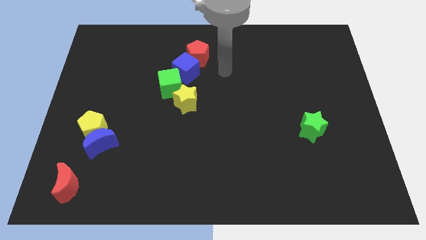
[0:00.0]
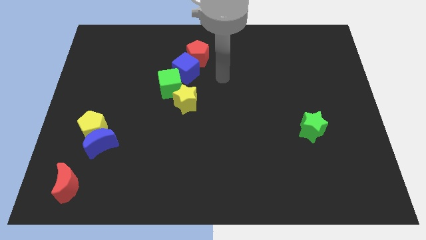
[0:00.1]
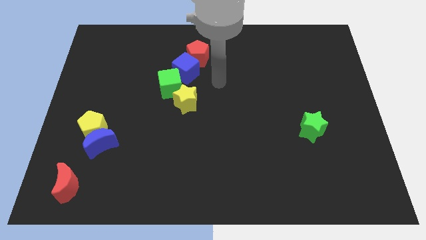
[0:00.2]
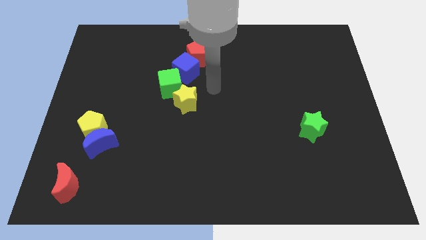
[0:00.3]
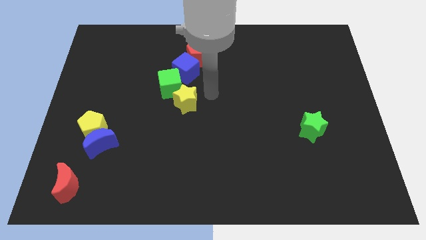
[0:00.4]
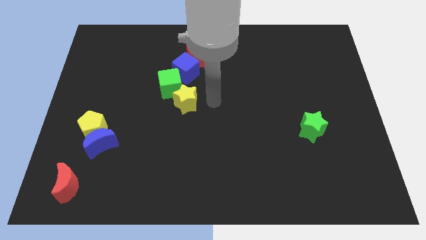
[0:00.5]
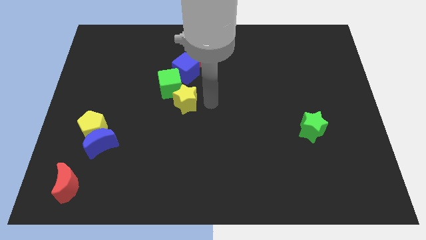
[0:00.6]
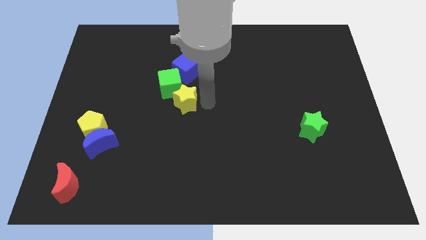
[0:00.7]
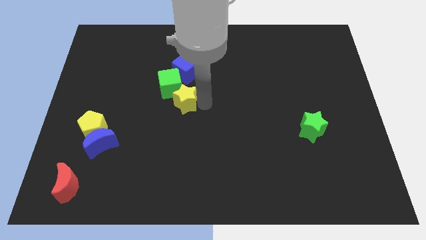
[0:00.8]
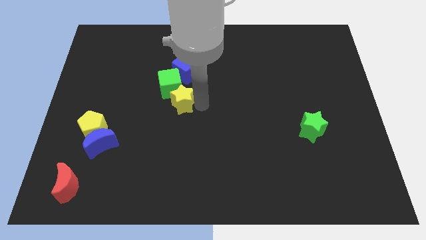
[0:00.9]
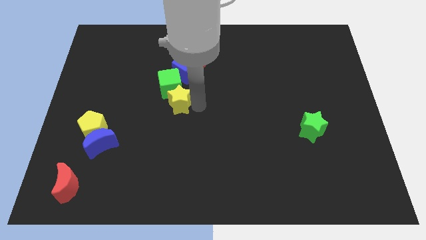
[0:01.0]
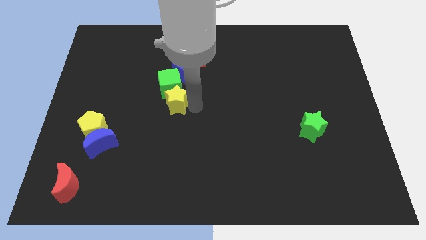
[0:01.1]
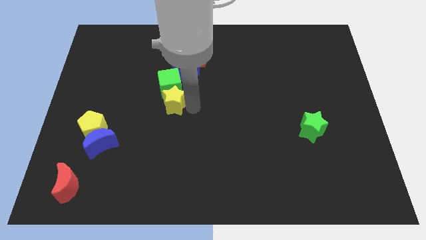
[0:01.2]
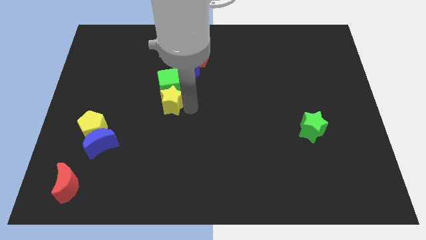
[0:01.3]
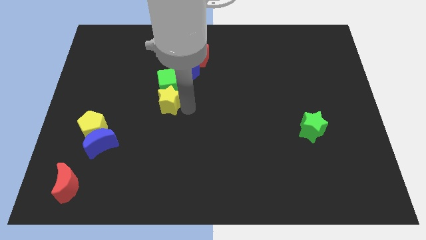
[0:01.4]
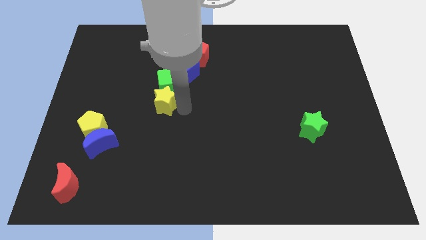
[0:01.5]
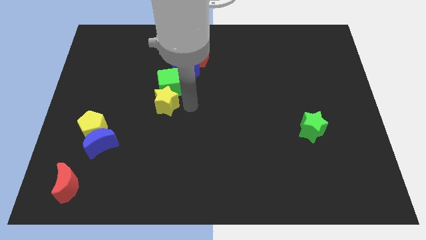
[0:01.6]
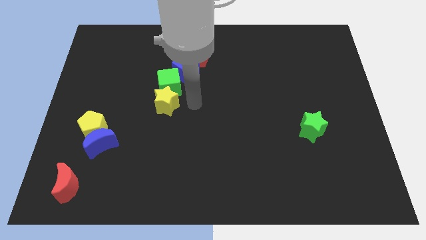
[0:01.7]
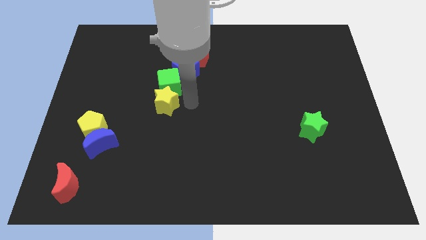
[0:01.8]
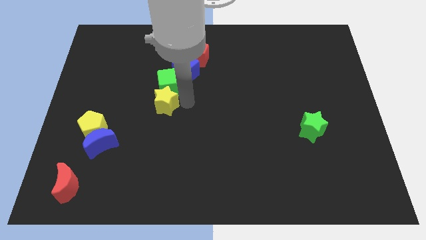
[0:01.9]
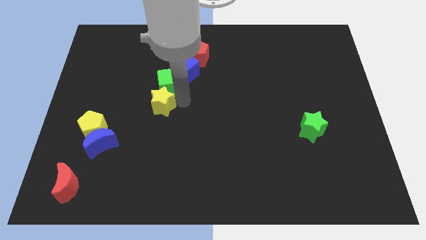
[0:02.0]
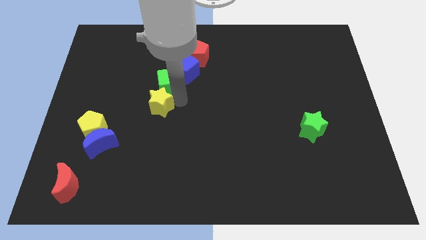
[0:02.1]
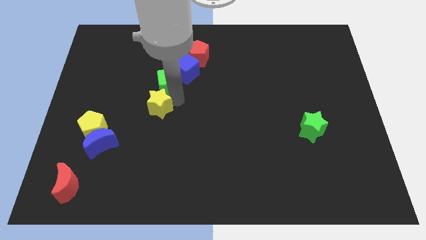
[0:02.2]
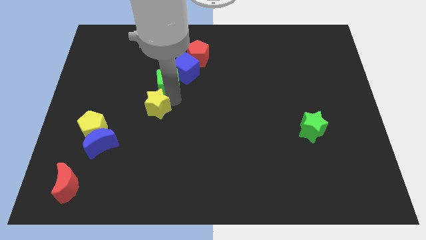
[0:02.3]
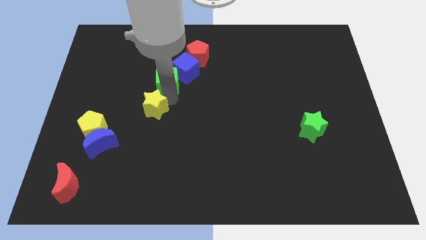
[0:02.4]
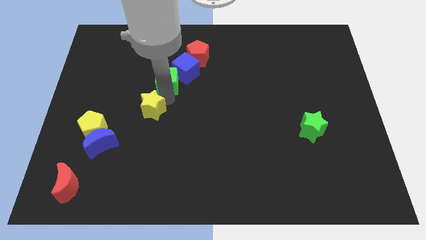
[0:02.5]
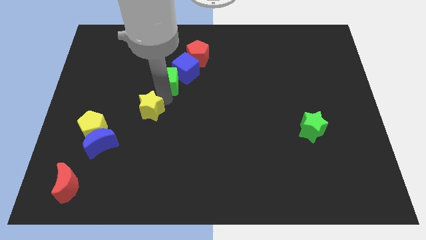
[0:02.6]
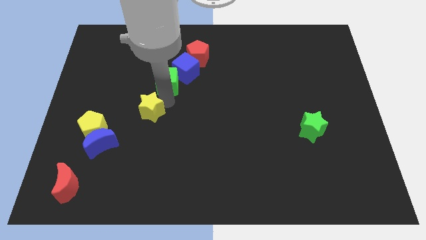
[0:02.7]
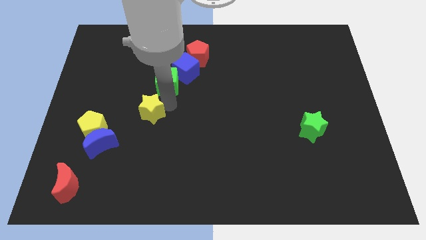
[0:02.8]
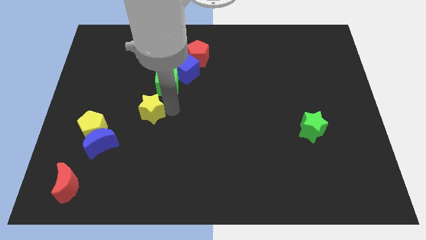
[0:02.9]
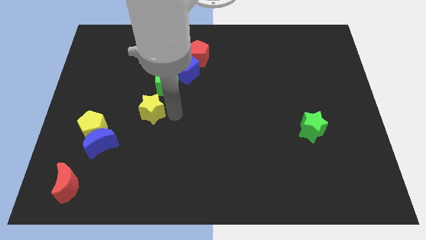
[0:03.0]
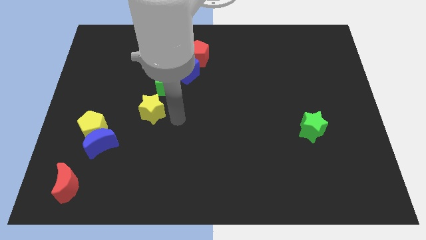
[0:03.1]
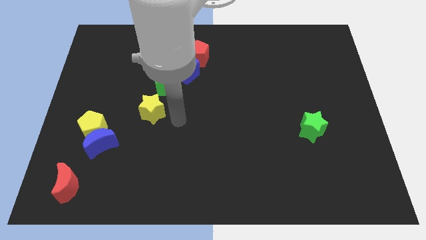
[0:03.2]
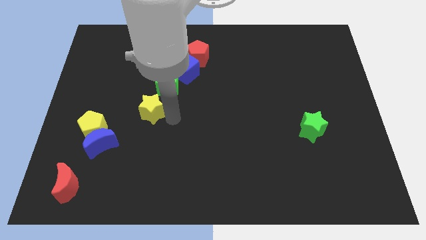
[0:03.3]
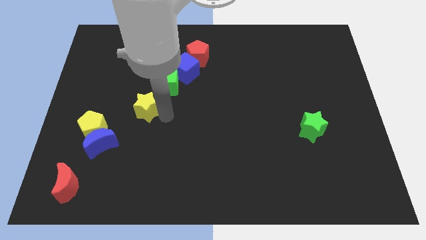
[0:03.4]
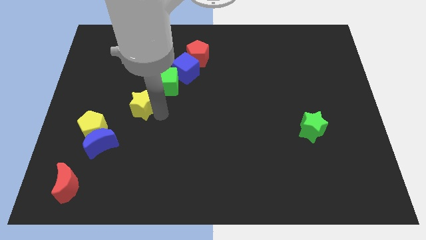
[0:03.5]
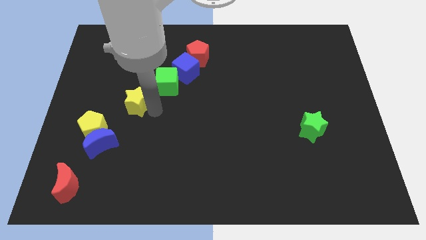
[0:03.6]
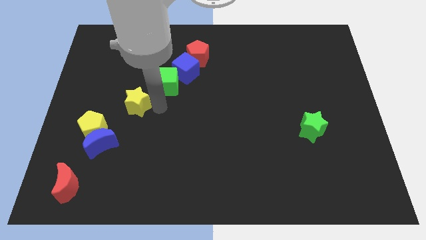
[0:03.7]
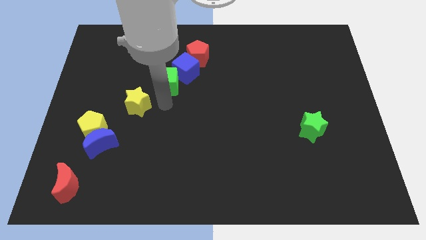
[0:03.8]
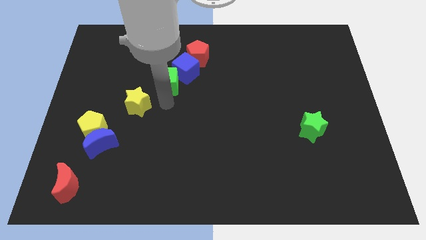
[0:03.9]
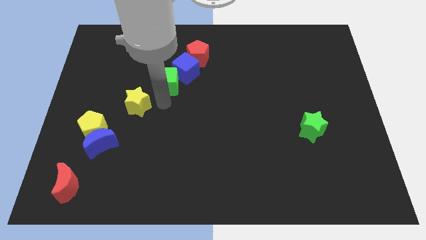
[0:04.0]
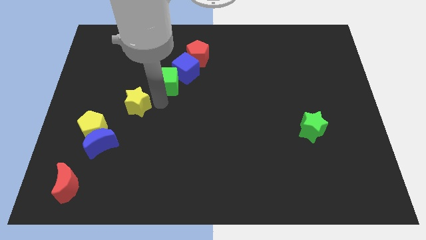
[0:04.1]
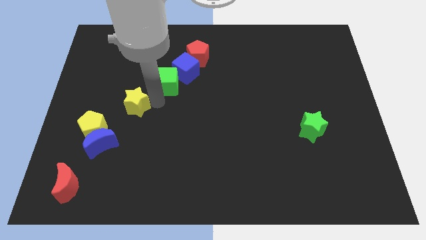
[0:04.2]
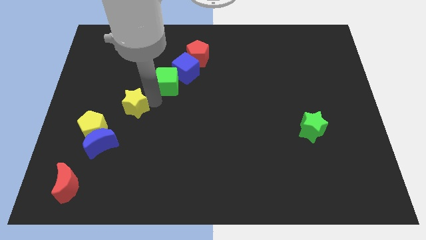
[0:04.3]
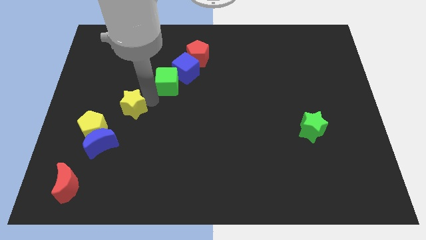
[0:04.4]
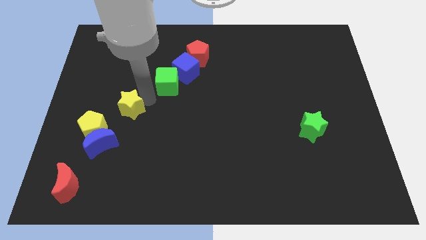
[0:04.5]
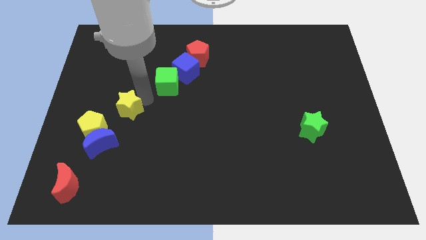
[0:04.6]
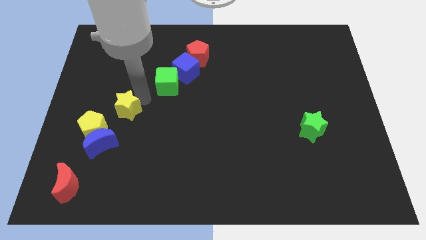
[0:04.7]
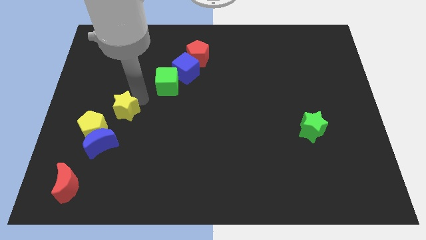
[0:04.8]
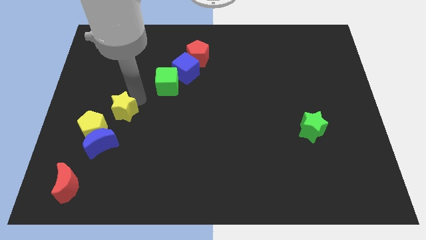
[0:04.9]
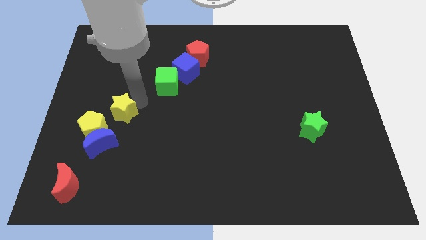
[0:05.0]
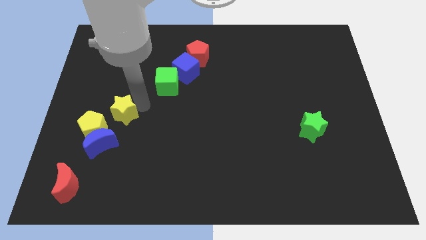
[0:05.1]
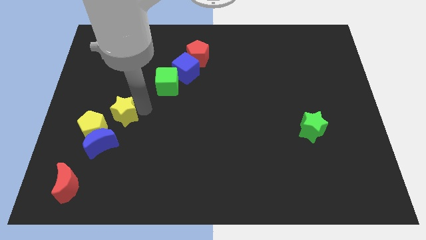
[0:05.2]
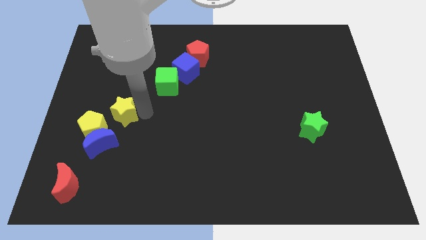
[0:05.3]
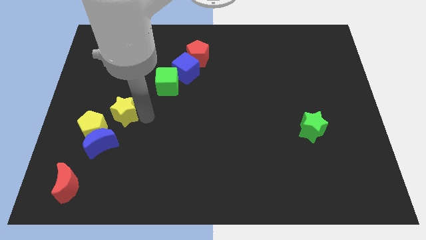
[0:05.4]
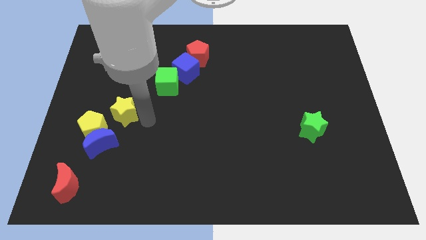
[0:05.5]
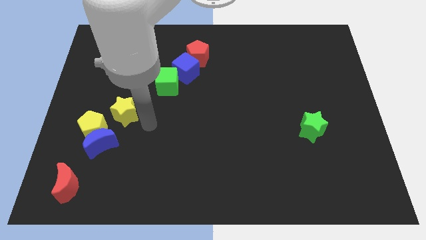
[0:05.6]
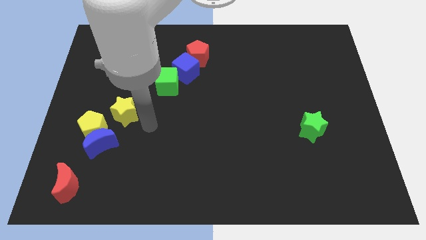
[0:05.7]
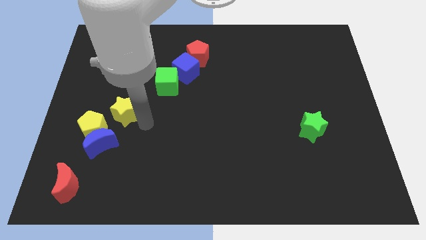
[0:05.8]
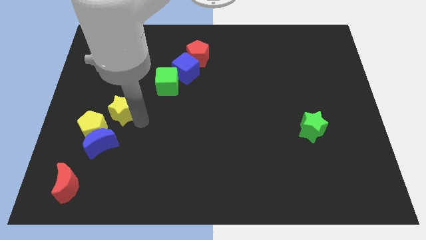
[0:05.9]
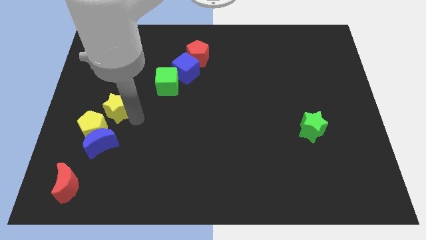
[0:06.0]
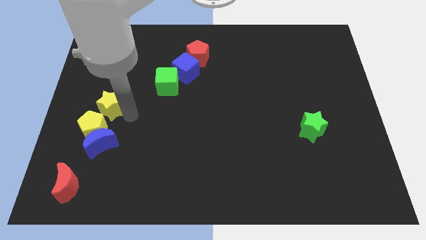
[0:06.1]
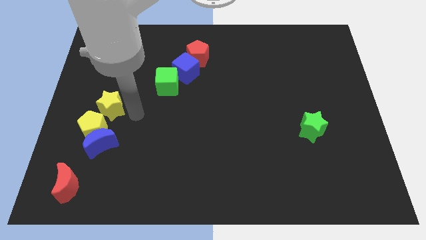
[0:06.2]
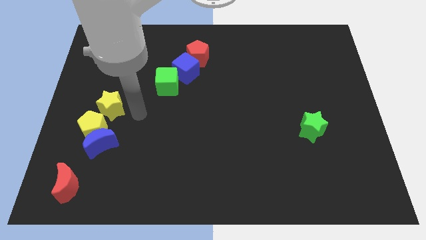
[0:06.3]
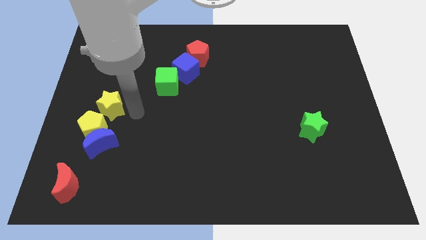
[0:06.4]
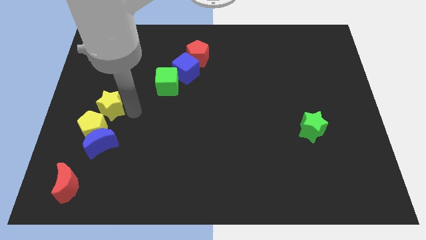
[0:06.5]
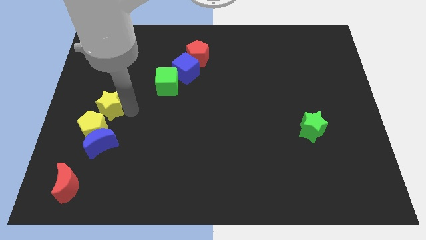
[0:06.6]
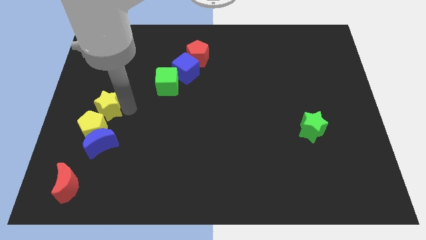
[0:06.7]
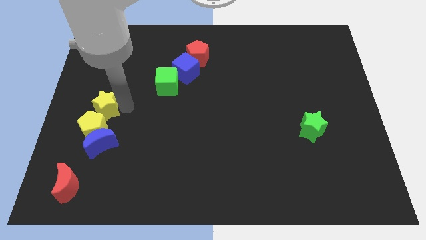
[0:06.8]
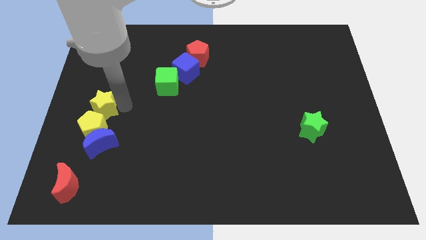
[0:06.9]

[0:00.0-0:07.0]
put the yellow star to the left side of the board
